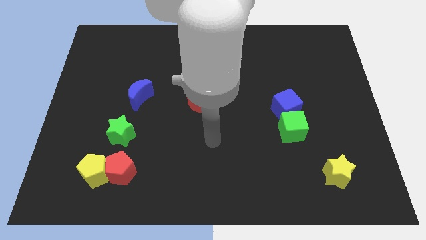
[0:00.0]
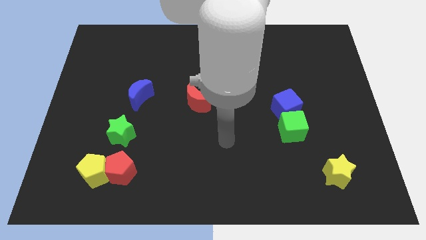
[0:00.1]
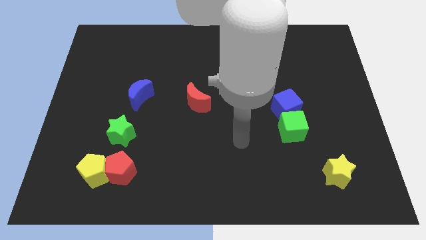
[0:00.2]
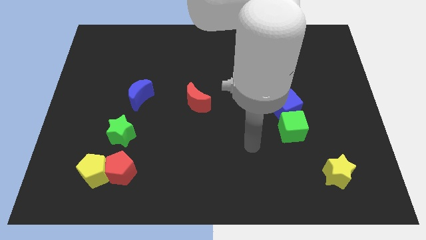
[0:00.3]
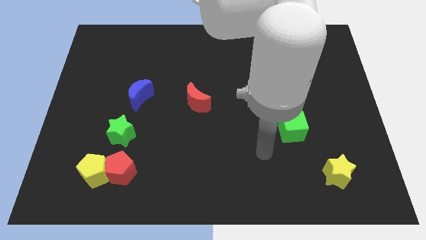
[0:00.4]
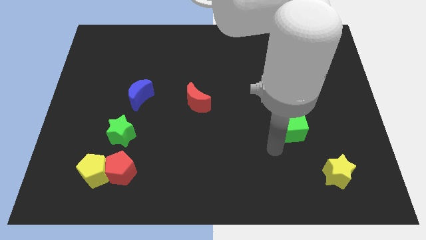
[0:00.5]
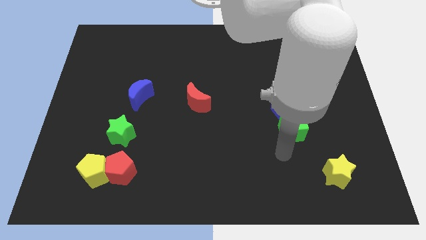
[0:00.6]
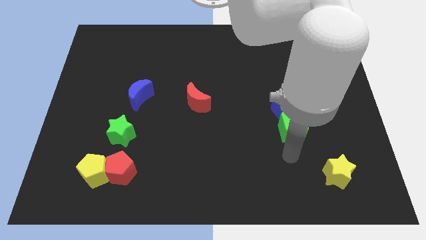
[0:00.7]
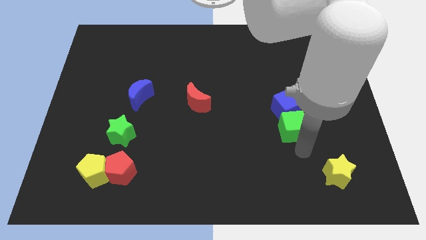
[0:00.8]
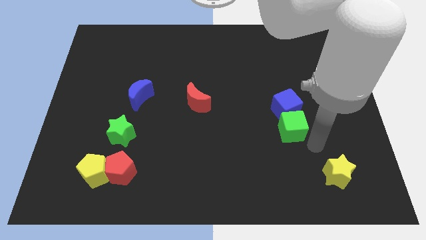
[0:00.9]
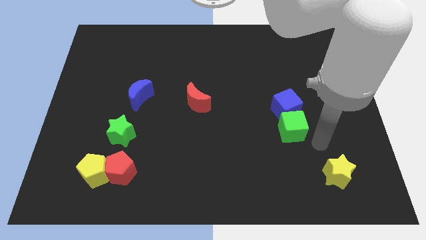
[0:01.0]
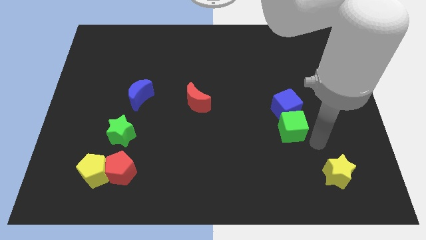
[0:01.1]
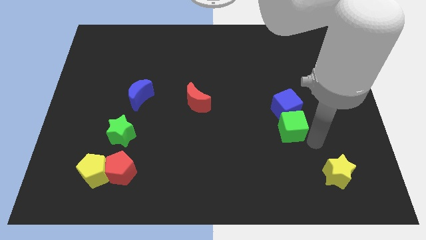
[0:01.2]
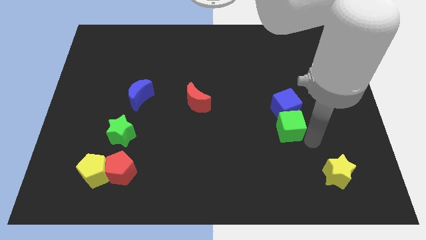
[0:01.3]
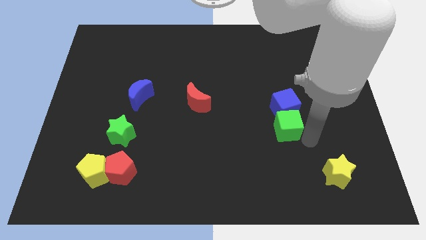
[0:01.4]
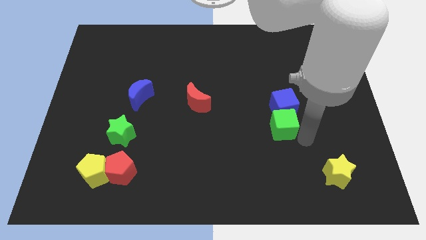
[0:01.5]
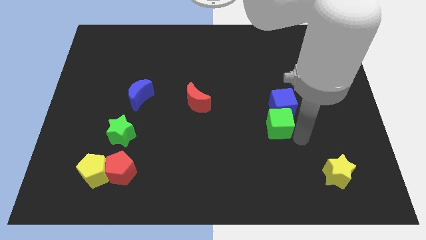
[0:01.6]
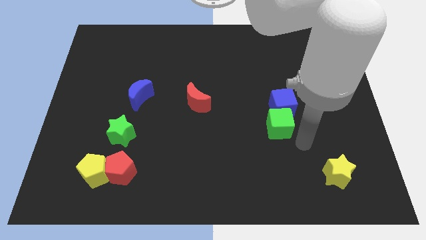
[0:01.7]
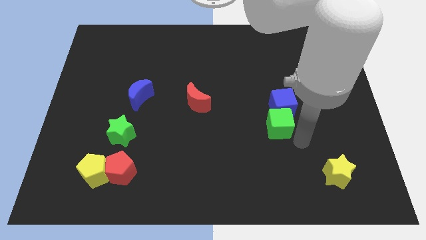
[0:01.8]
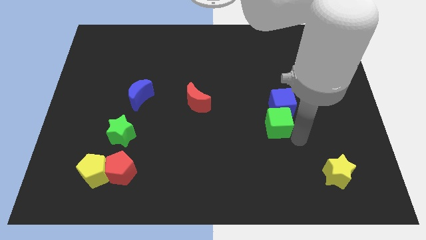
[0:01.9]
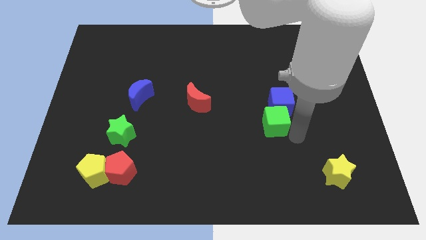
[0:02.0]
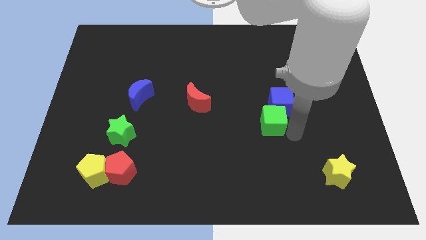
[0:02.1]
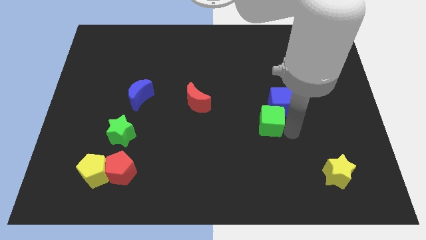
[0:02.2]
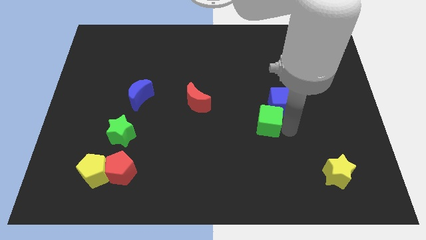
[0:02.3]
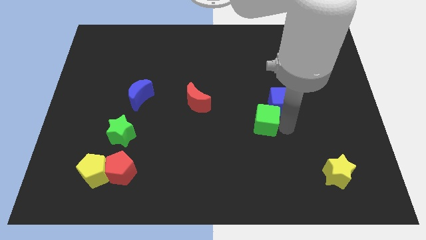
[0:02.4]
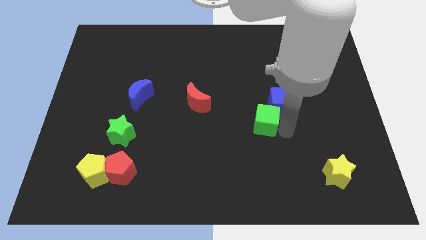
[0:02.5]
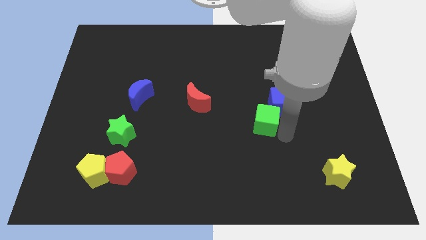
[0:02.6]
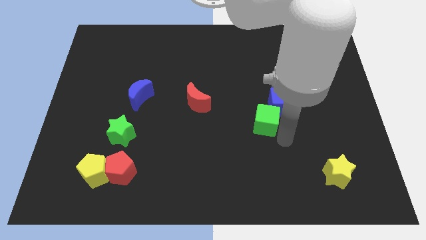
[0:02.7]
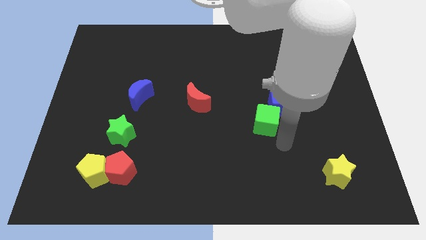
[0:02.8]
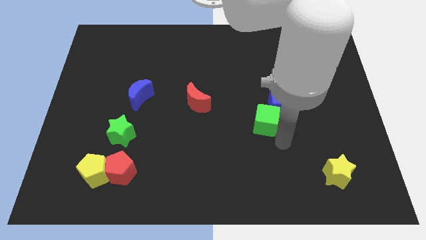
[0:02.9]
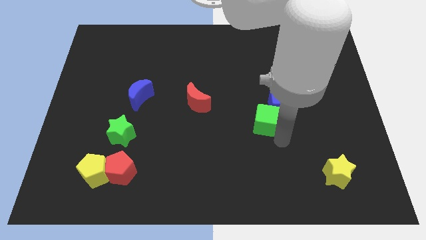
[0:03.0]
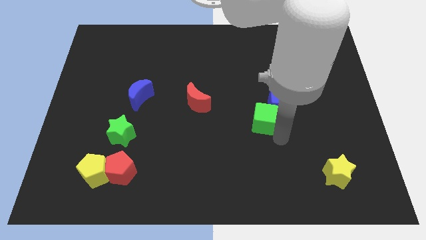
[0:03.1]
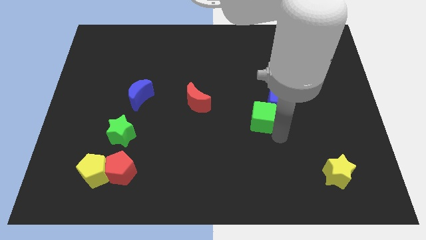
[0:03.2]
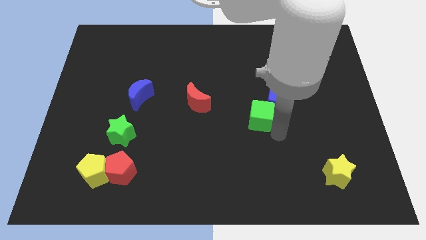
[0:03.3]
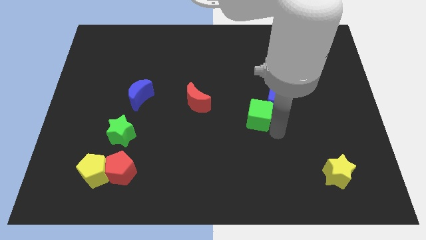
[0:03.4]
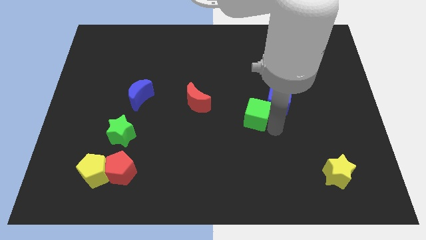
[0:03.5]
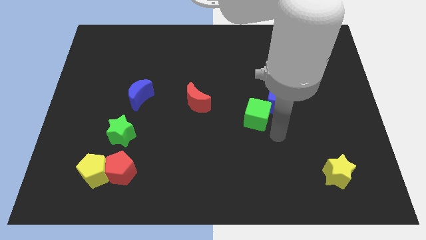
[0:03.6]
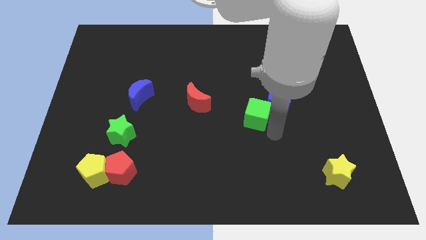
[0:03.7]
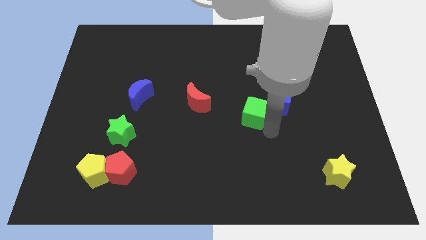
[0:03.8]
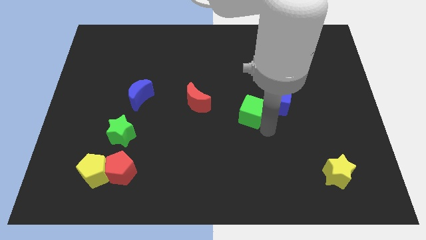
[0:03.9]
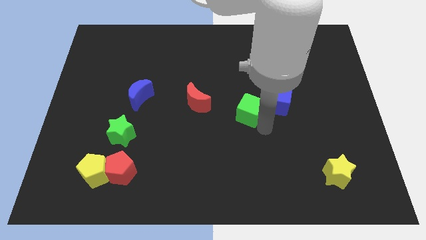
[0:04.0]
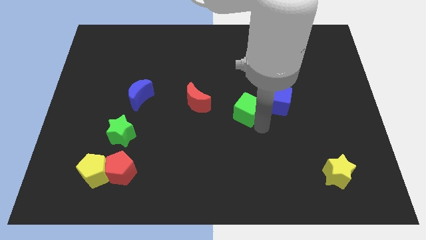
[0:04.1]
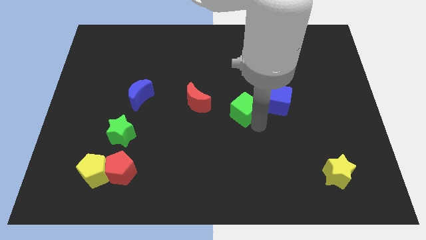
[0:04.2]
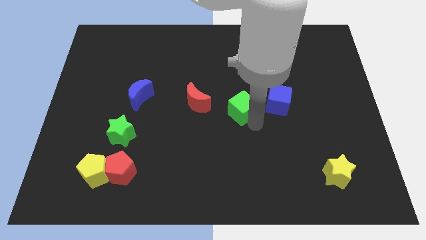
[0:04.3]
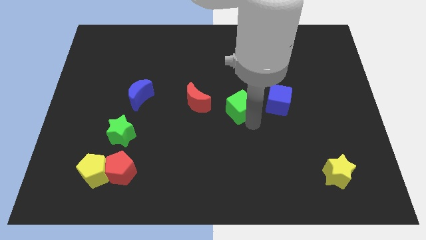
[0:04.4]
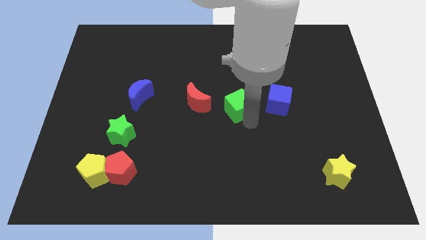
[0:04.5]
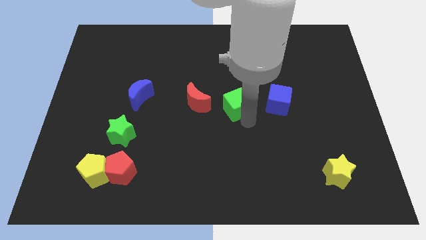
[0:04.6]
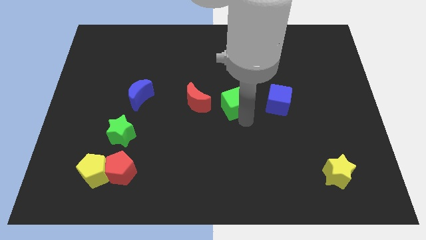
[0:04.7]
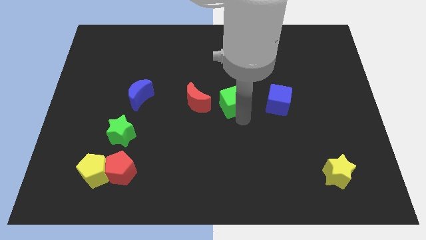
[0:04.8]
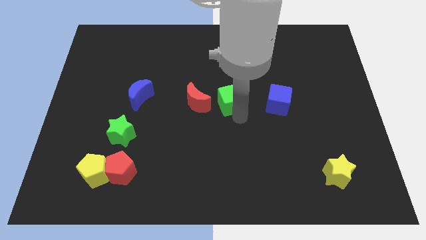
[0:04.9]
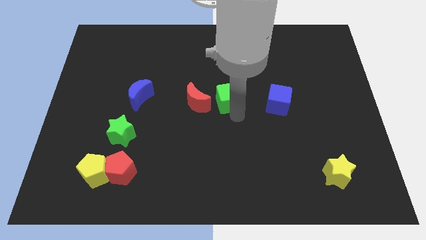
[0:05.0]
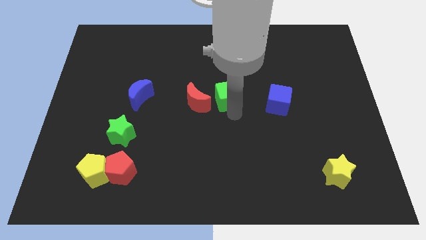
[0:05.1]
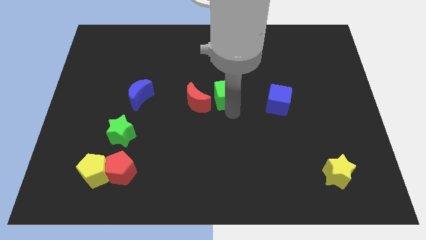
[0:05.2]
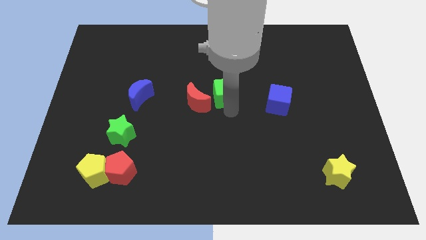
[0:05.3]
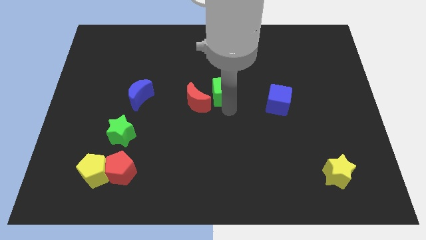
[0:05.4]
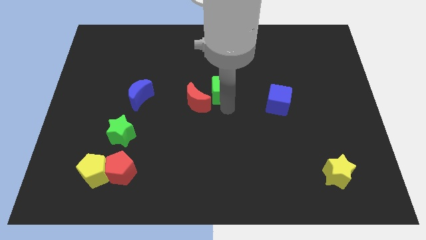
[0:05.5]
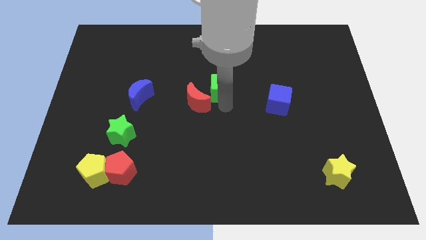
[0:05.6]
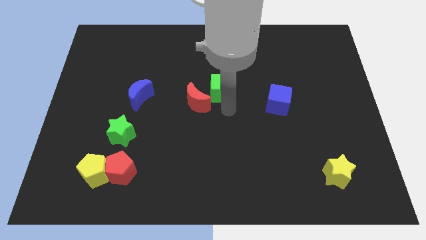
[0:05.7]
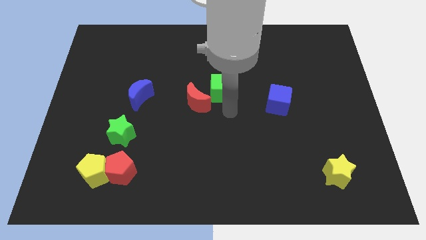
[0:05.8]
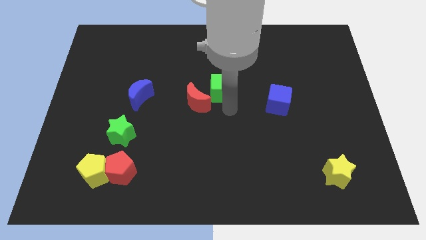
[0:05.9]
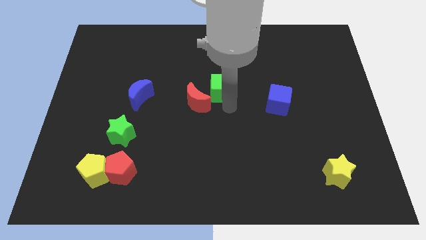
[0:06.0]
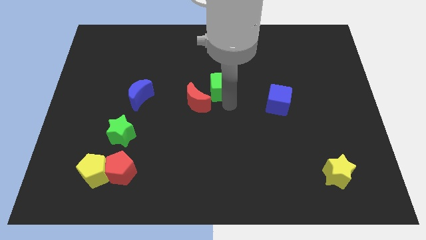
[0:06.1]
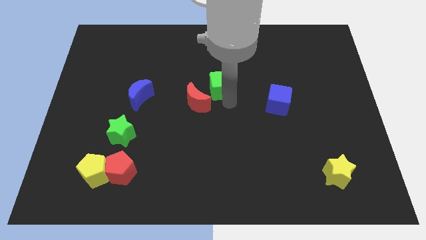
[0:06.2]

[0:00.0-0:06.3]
slide the green cube diagonally up and left

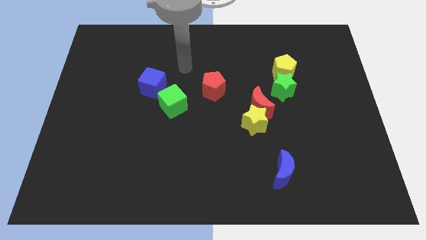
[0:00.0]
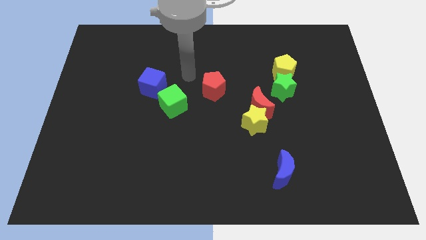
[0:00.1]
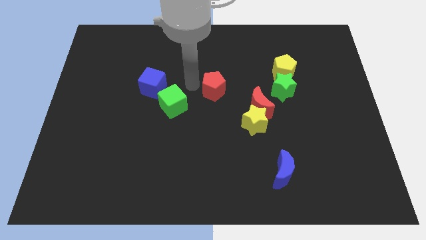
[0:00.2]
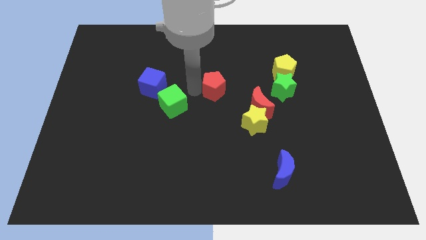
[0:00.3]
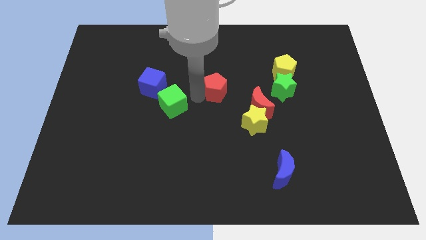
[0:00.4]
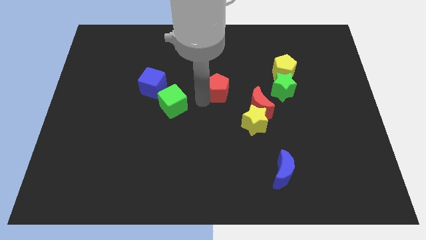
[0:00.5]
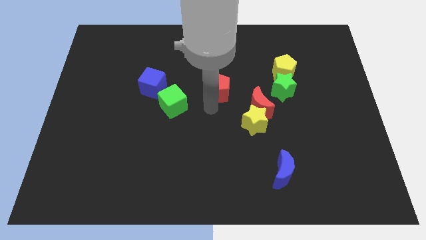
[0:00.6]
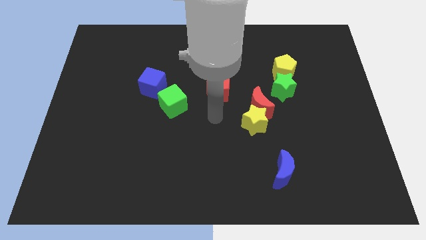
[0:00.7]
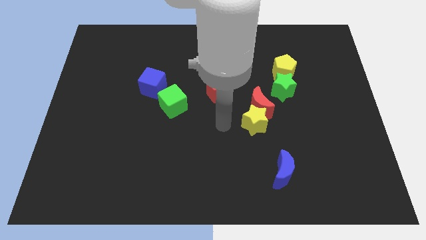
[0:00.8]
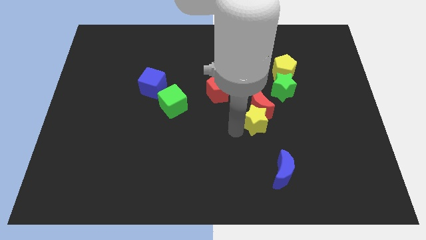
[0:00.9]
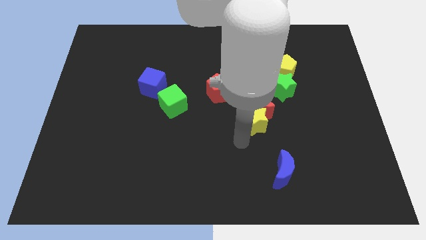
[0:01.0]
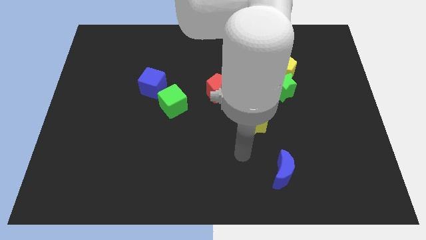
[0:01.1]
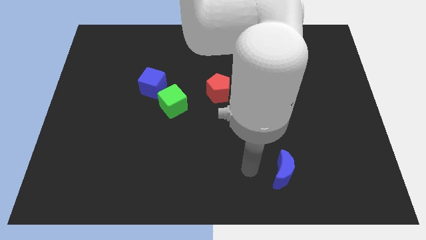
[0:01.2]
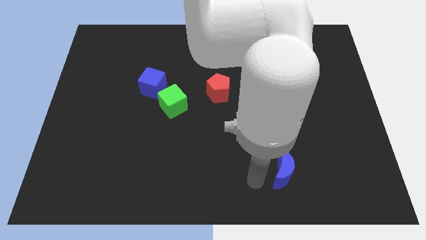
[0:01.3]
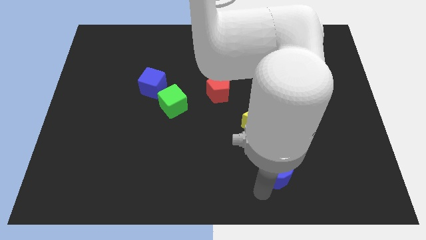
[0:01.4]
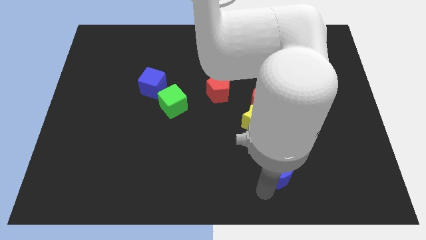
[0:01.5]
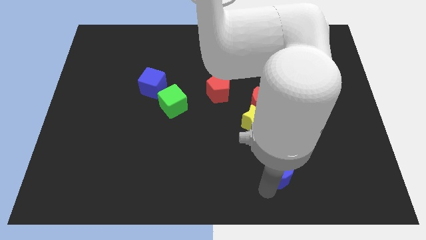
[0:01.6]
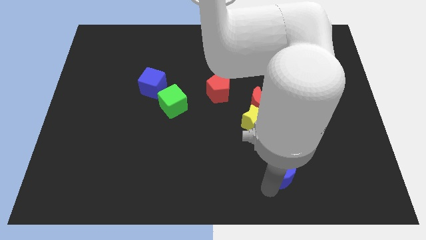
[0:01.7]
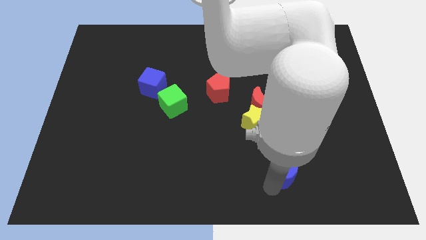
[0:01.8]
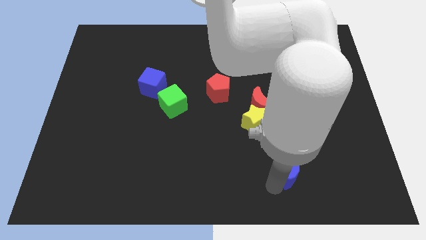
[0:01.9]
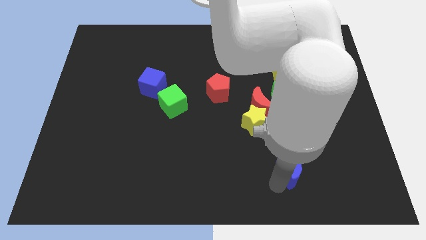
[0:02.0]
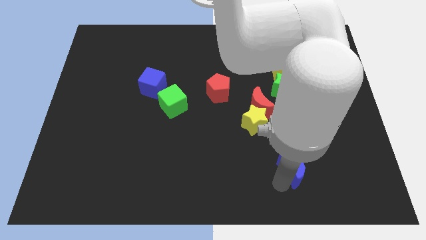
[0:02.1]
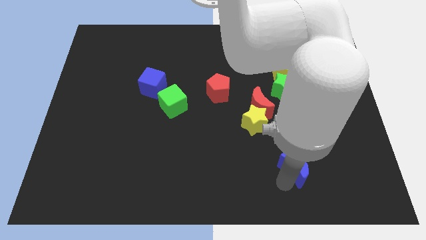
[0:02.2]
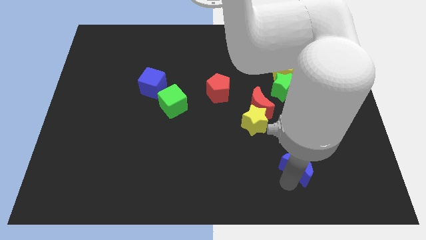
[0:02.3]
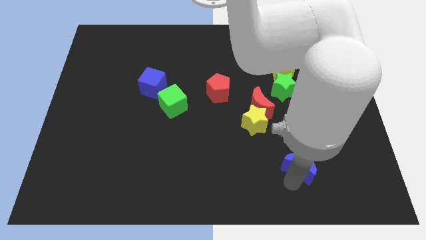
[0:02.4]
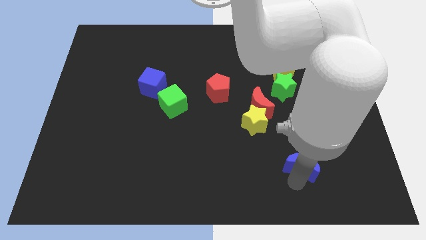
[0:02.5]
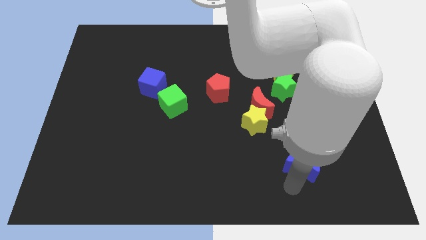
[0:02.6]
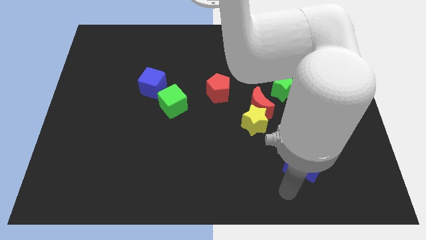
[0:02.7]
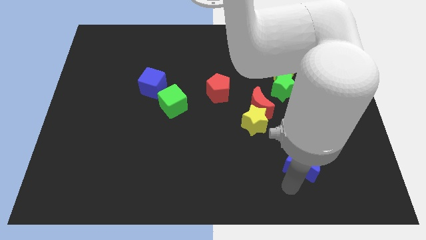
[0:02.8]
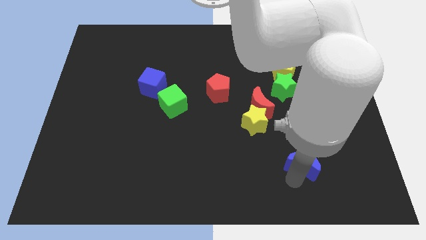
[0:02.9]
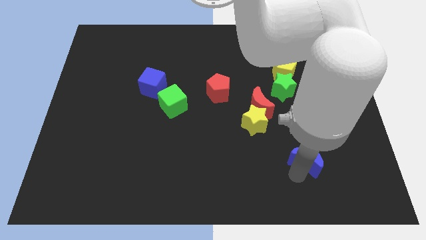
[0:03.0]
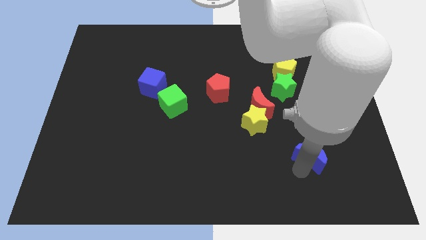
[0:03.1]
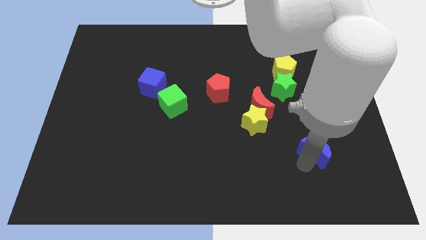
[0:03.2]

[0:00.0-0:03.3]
move the blue moon up and right slightly
